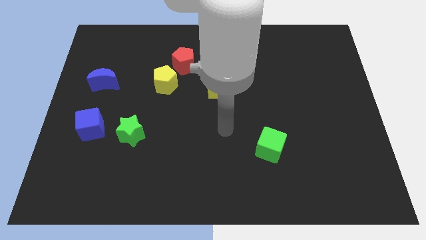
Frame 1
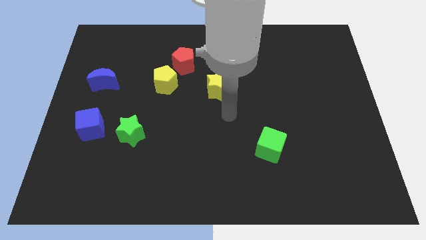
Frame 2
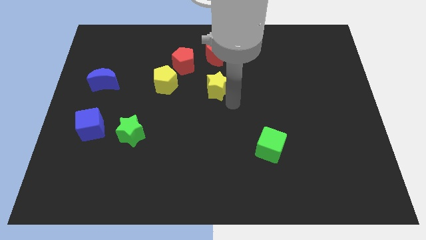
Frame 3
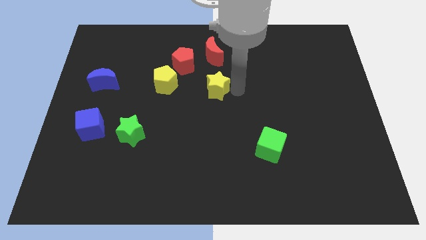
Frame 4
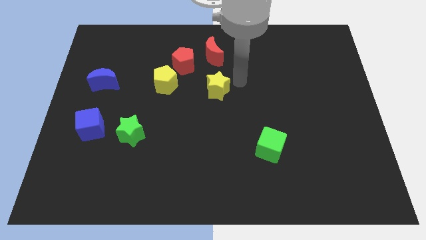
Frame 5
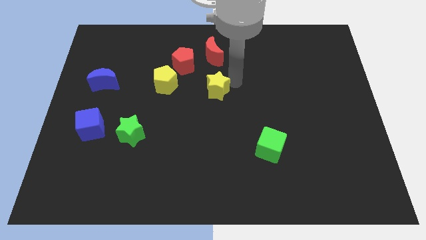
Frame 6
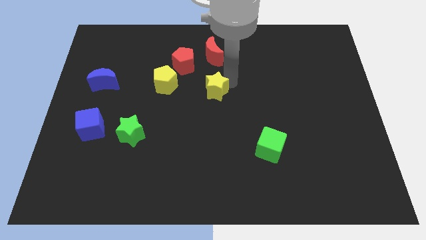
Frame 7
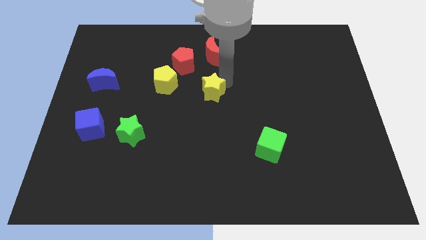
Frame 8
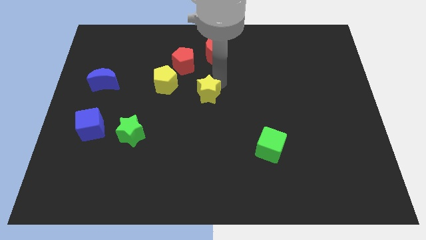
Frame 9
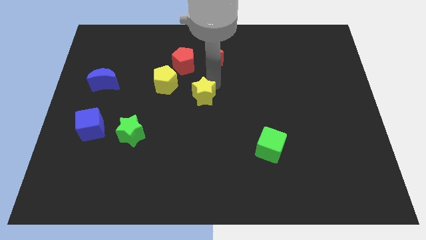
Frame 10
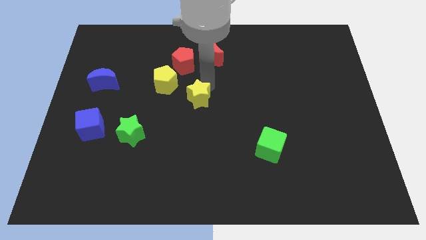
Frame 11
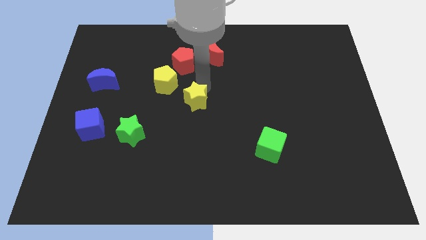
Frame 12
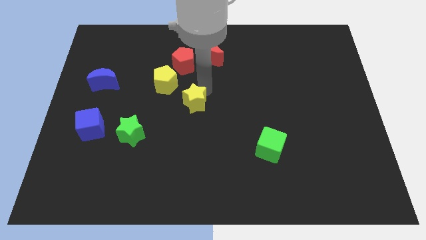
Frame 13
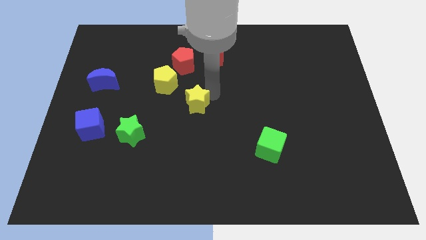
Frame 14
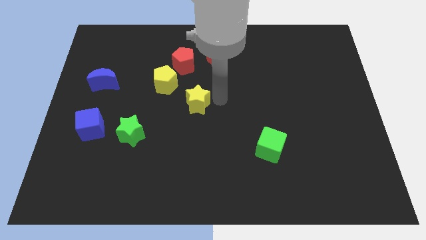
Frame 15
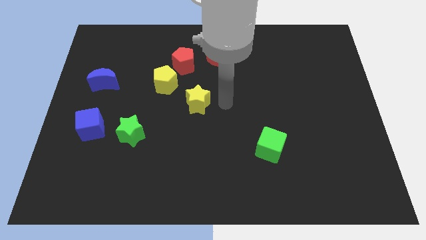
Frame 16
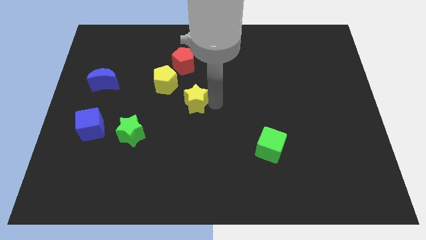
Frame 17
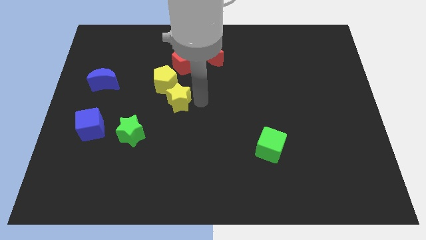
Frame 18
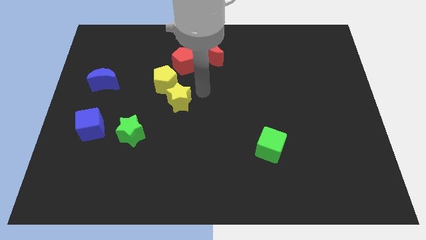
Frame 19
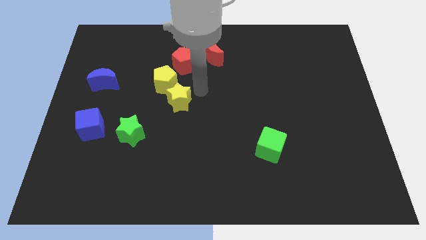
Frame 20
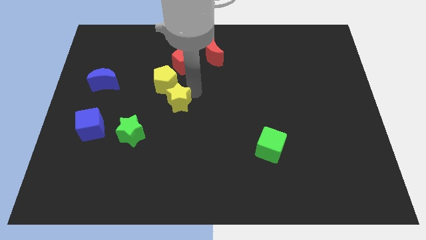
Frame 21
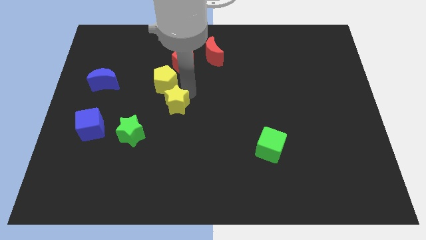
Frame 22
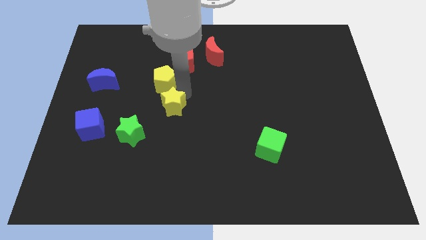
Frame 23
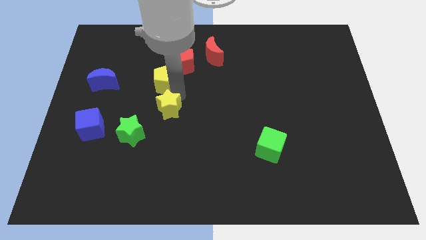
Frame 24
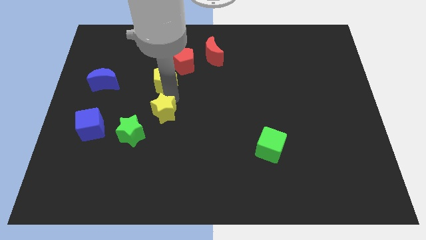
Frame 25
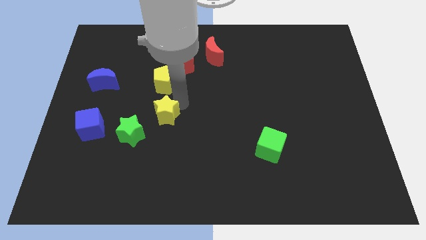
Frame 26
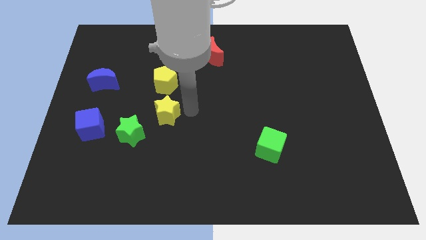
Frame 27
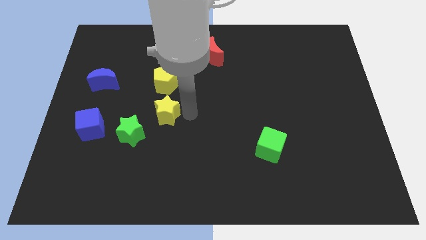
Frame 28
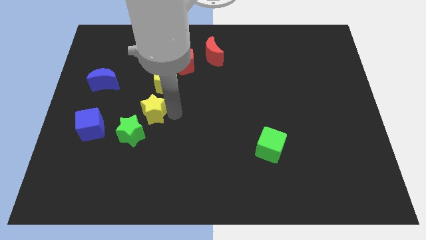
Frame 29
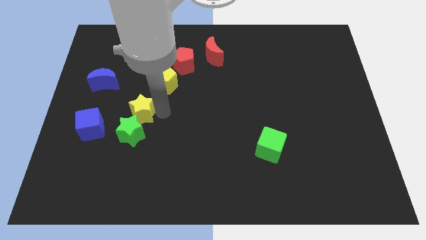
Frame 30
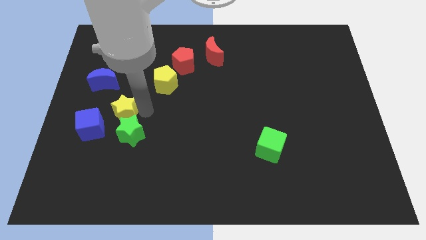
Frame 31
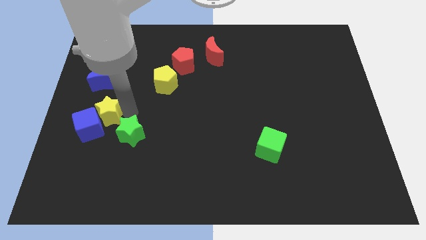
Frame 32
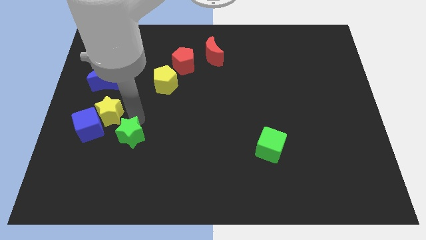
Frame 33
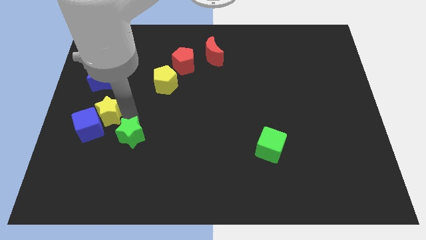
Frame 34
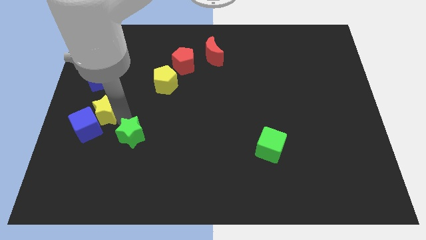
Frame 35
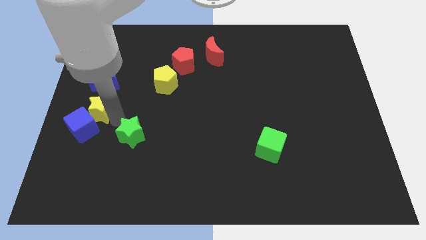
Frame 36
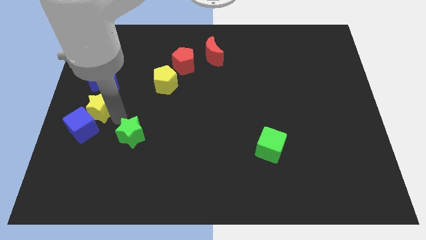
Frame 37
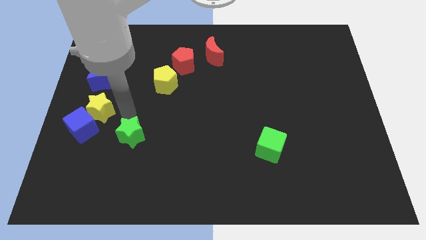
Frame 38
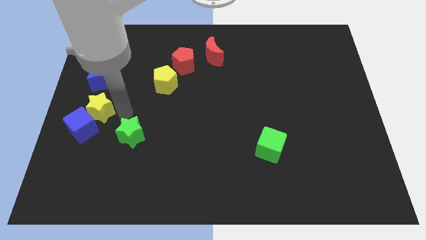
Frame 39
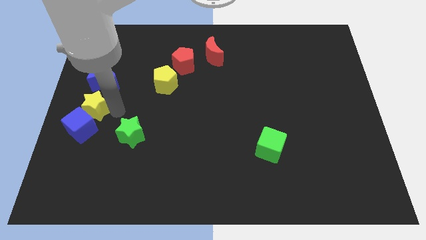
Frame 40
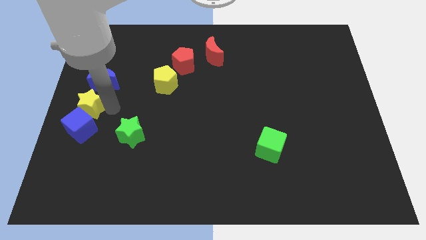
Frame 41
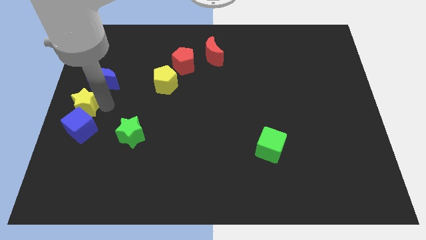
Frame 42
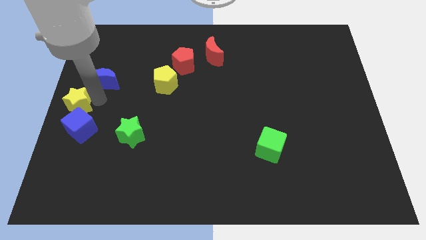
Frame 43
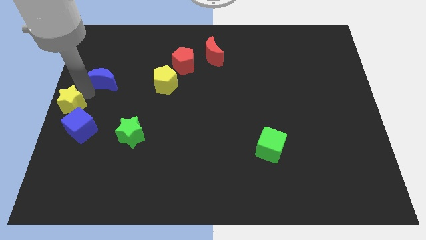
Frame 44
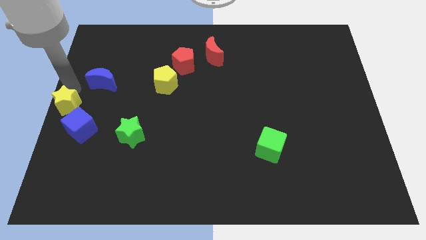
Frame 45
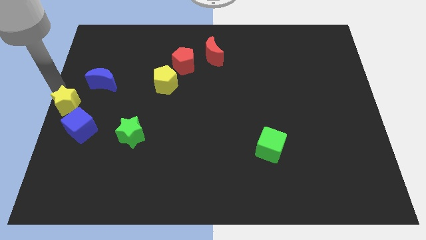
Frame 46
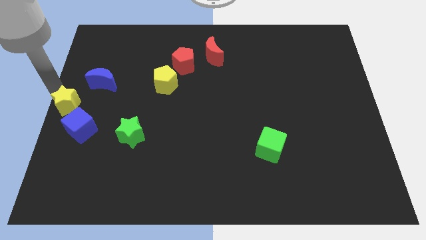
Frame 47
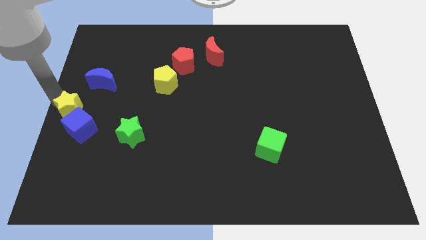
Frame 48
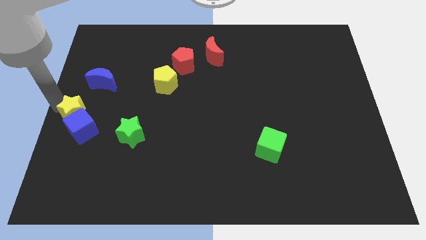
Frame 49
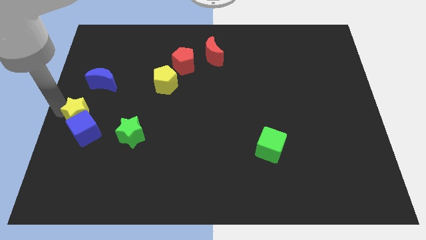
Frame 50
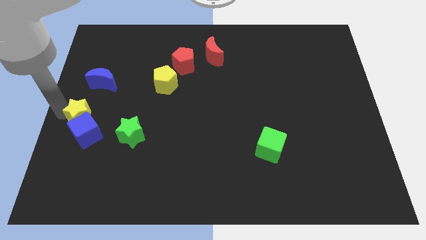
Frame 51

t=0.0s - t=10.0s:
put the yellow star to the left of the green star

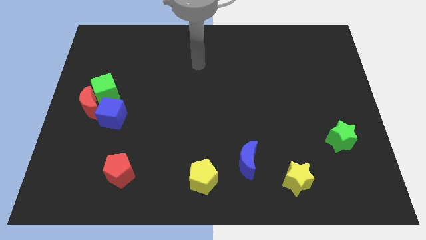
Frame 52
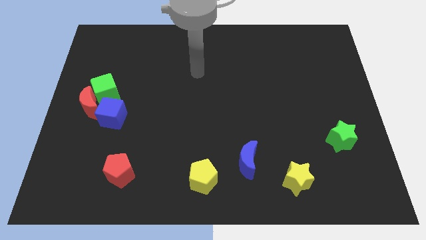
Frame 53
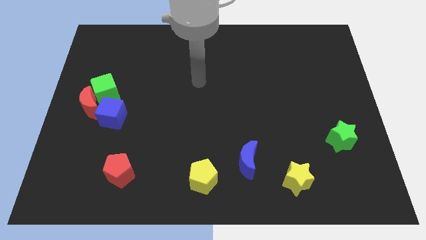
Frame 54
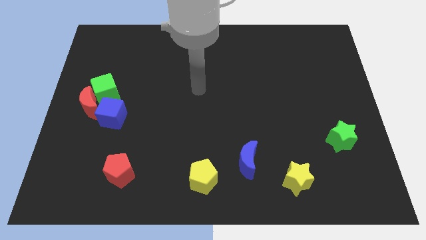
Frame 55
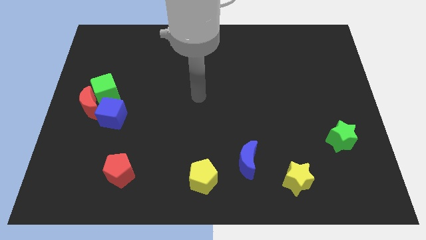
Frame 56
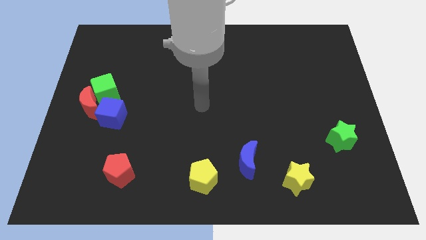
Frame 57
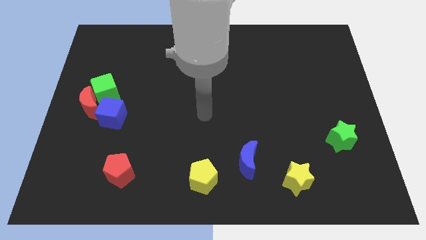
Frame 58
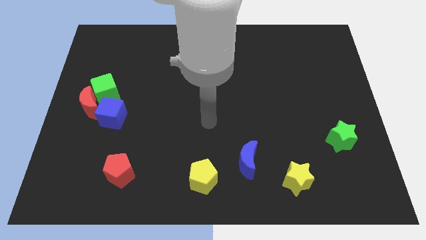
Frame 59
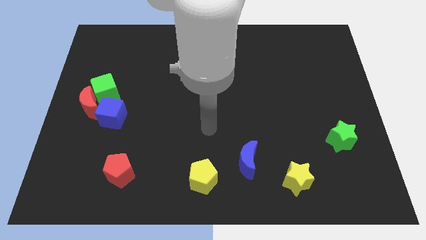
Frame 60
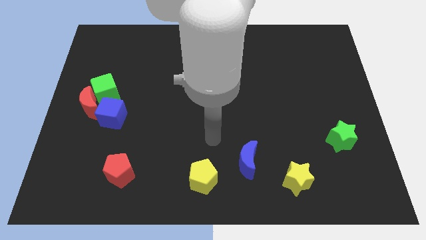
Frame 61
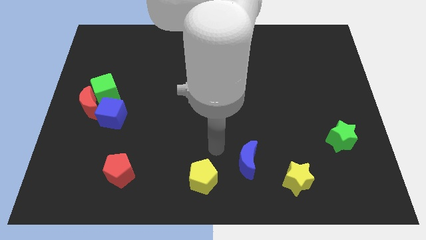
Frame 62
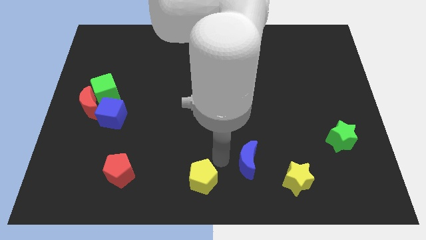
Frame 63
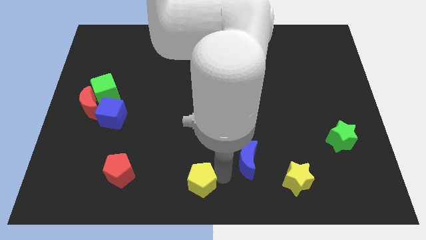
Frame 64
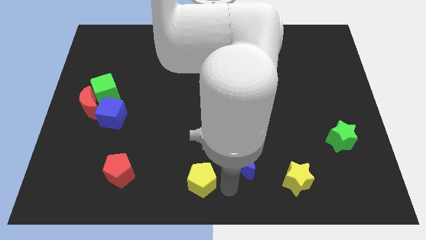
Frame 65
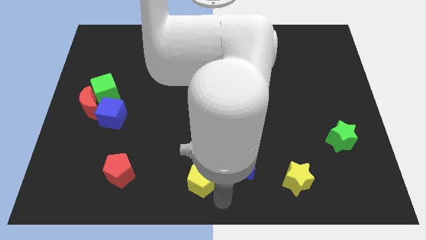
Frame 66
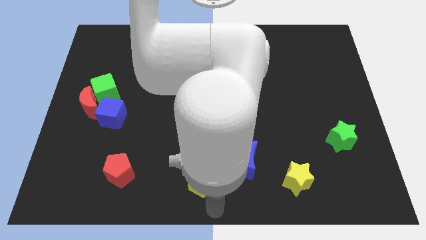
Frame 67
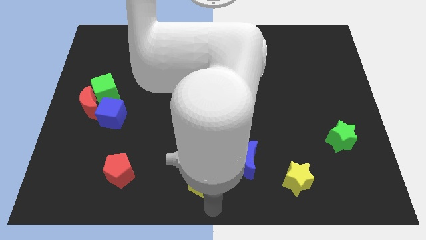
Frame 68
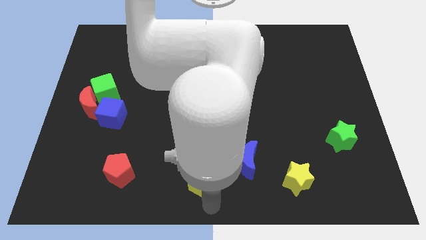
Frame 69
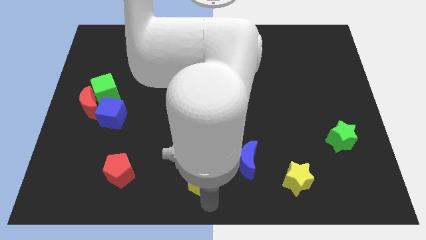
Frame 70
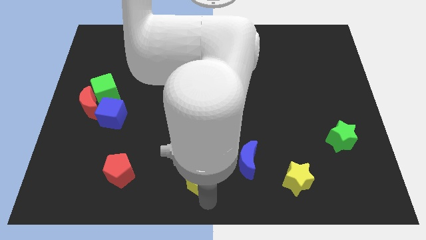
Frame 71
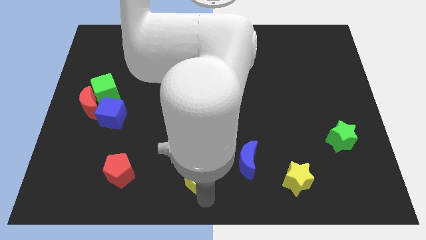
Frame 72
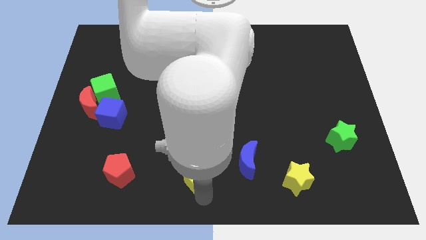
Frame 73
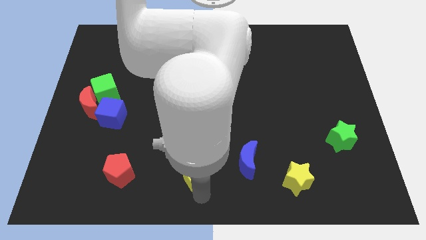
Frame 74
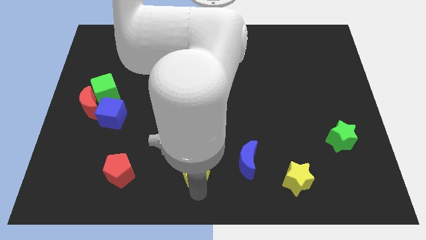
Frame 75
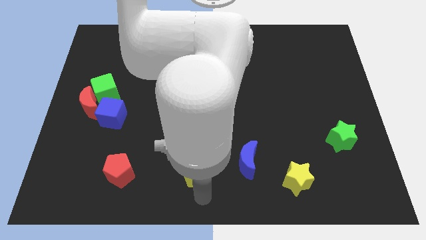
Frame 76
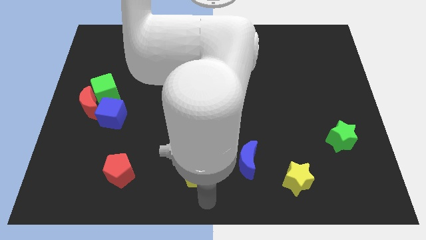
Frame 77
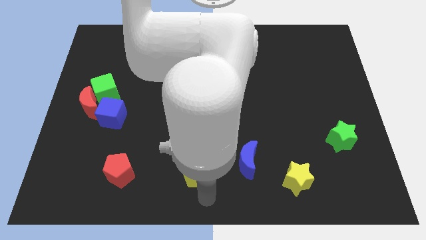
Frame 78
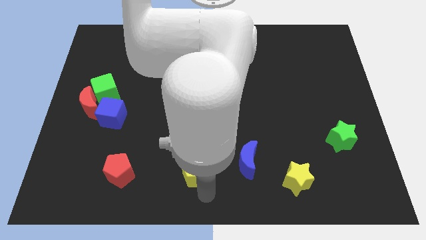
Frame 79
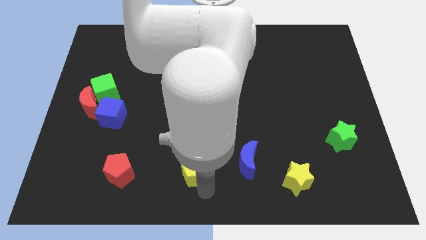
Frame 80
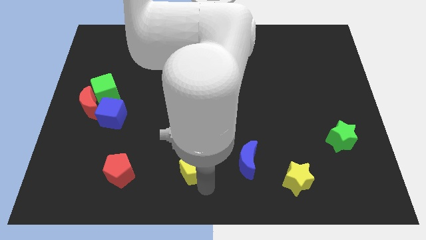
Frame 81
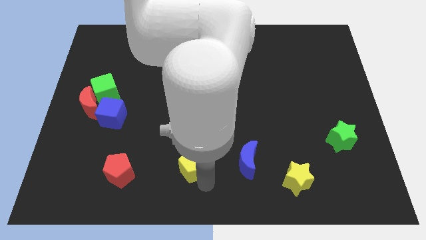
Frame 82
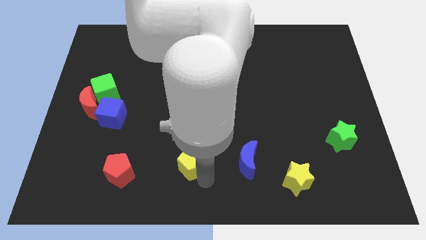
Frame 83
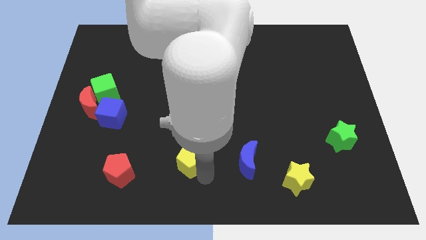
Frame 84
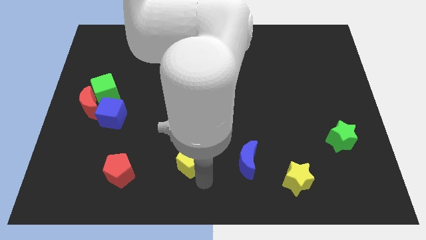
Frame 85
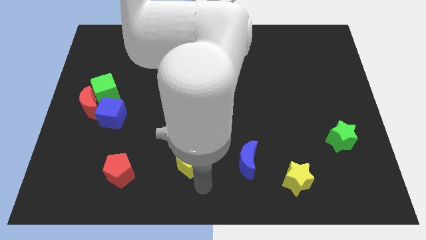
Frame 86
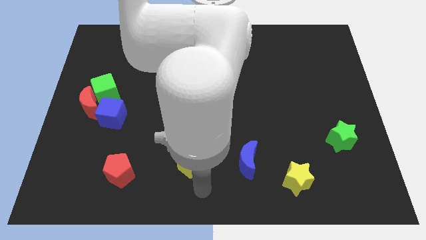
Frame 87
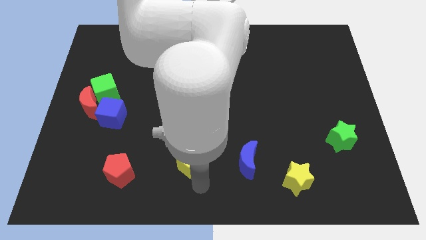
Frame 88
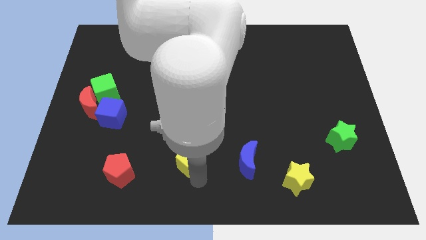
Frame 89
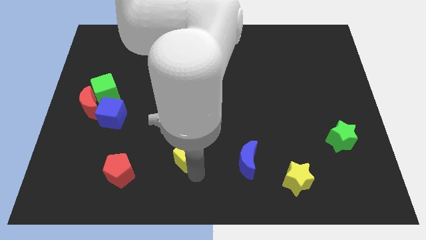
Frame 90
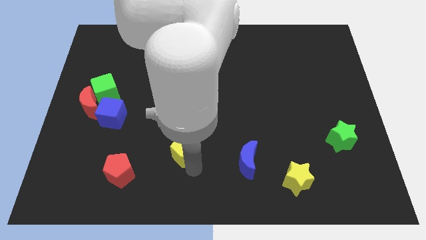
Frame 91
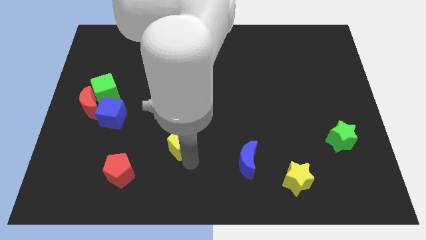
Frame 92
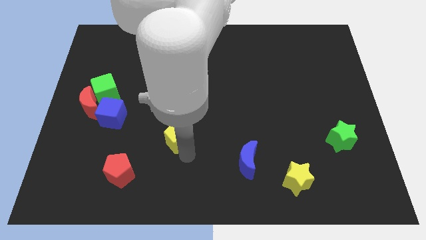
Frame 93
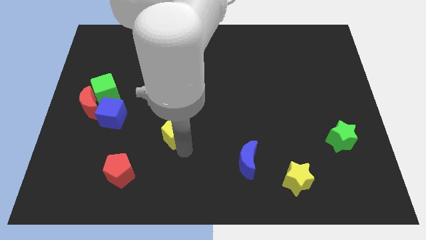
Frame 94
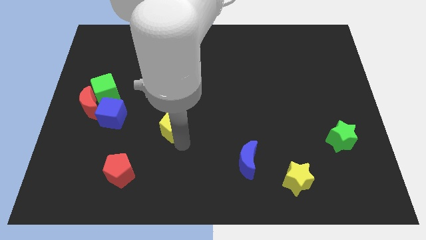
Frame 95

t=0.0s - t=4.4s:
push the yellow pentagon right of the blue cube
